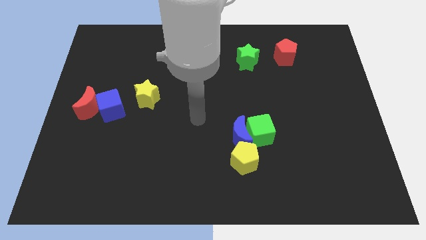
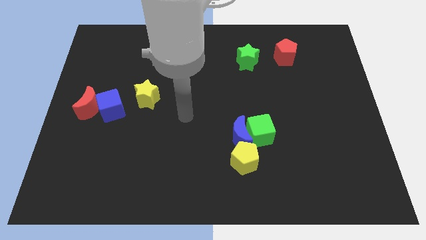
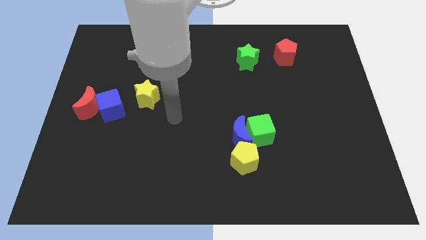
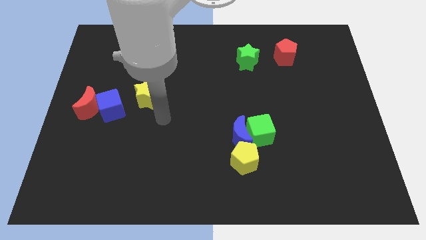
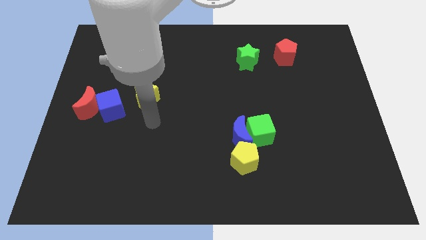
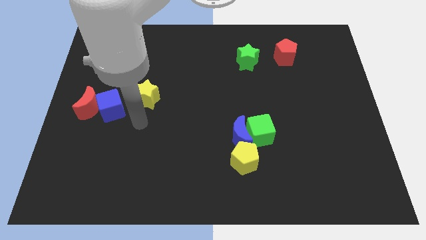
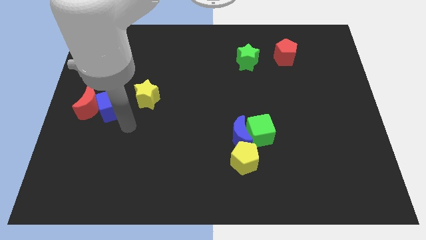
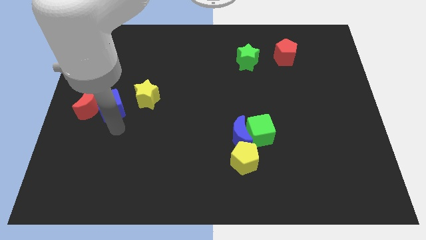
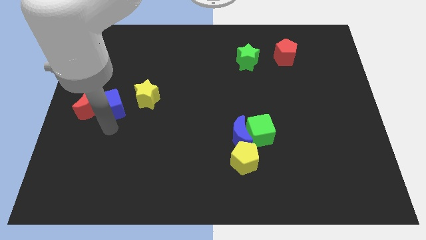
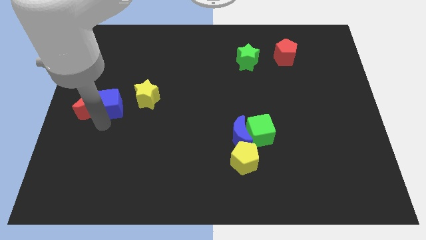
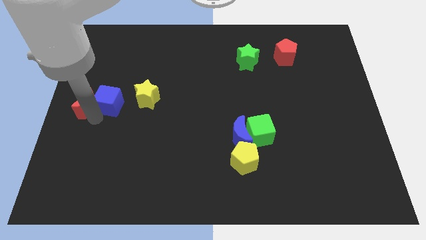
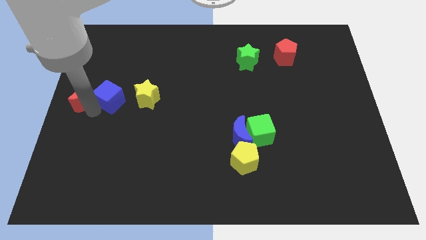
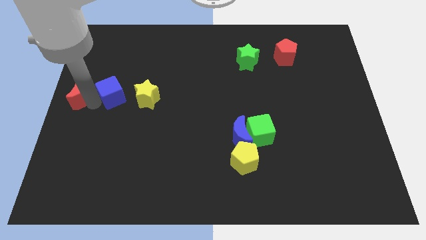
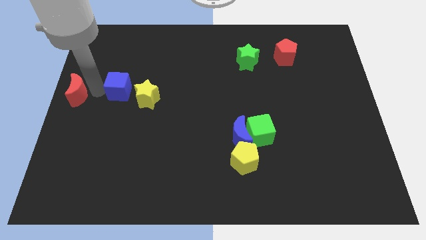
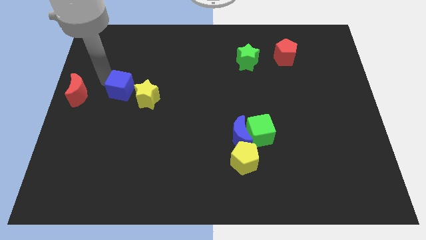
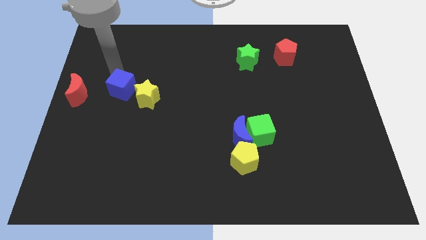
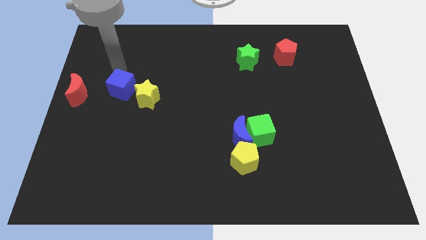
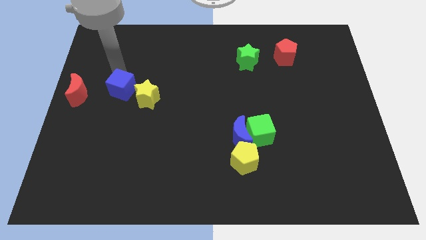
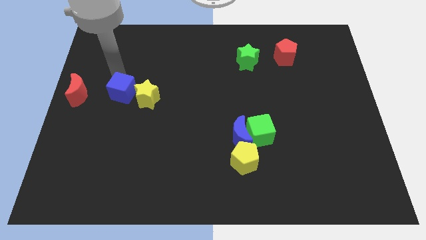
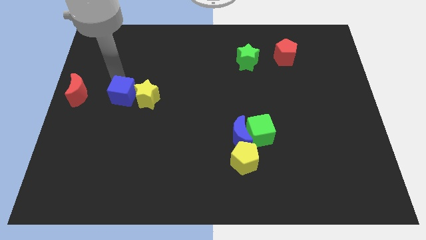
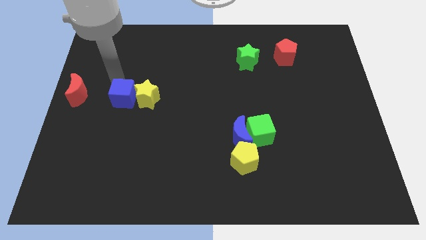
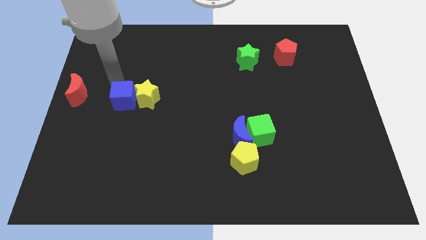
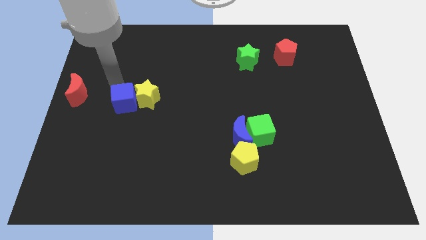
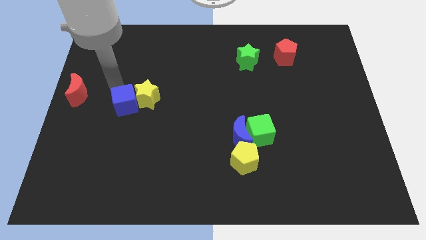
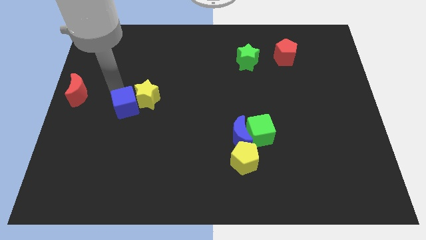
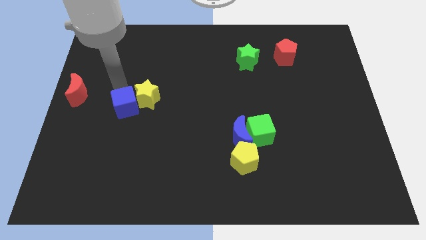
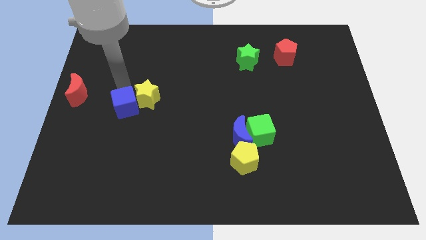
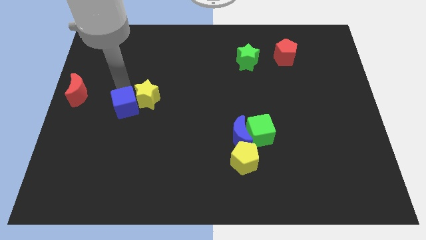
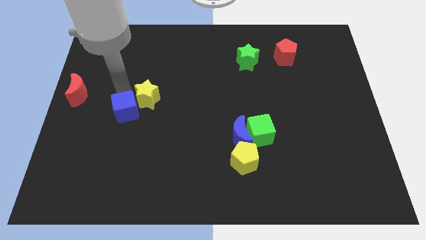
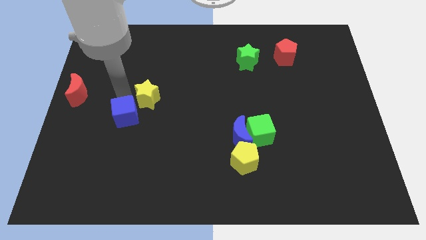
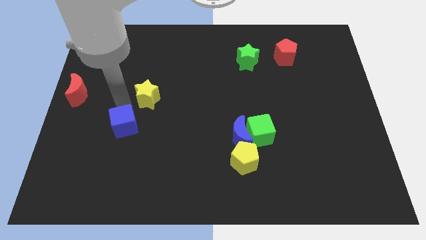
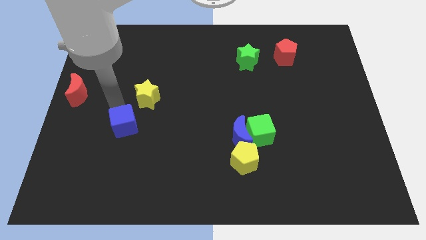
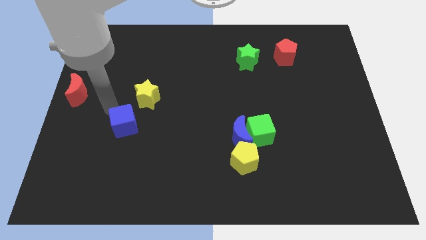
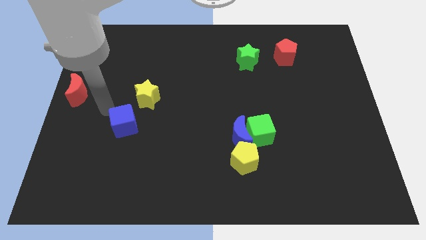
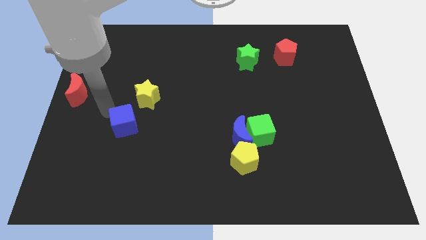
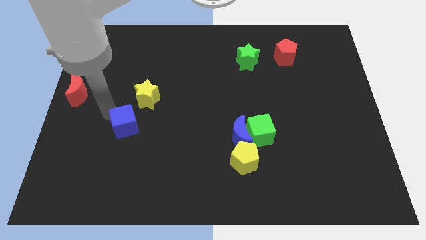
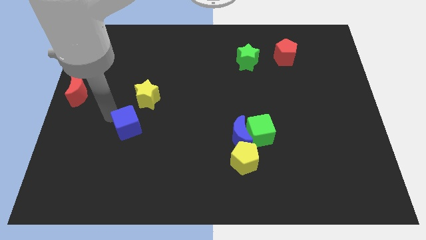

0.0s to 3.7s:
slightly push the blue cube downwards and then right

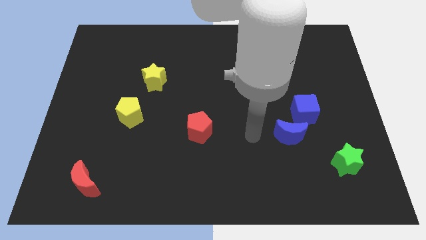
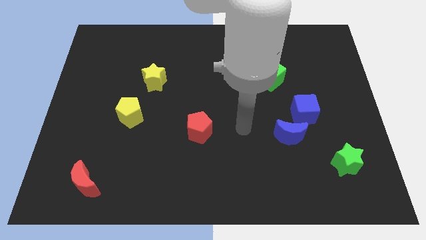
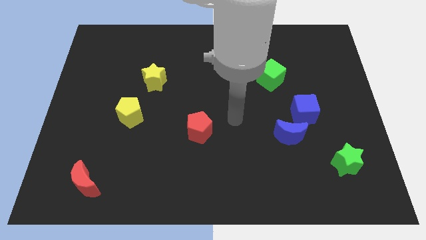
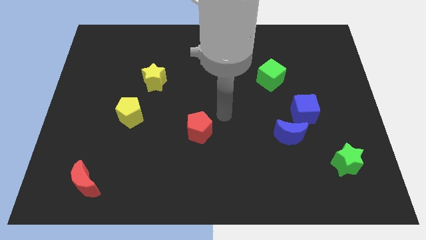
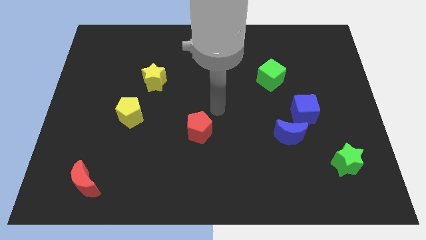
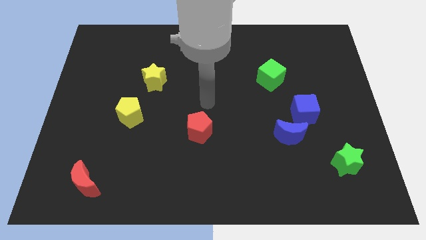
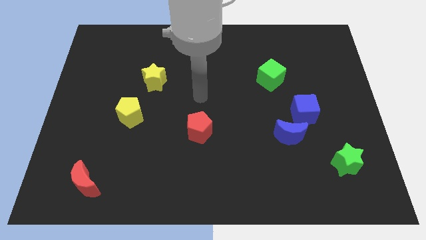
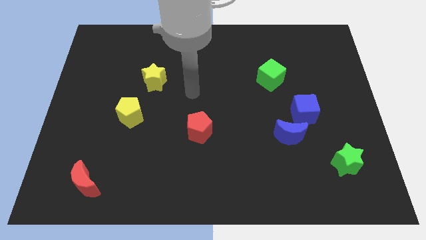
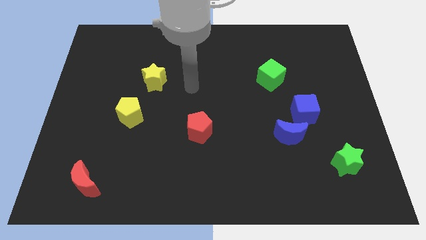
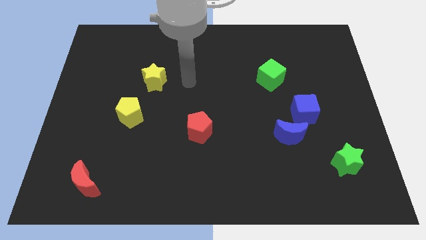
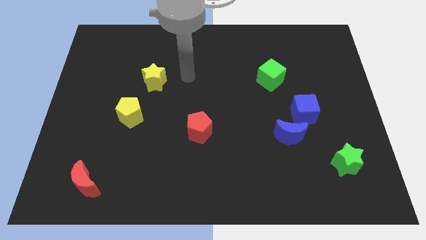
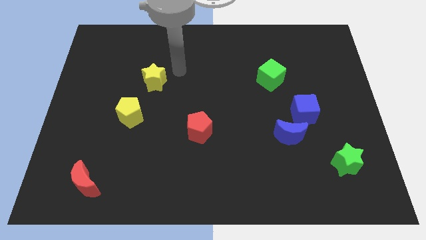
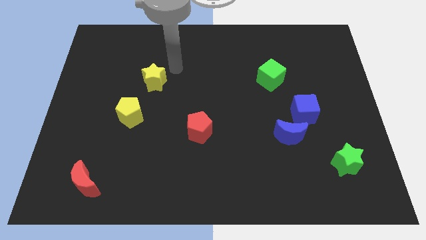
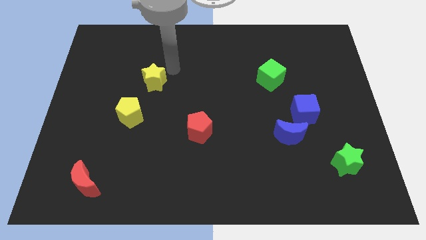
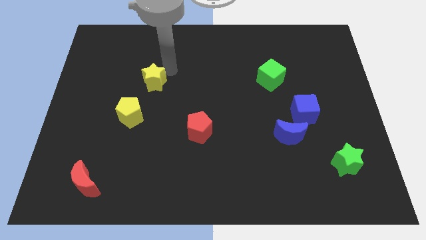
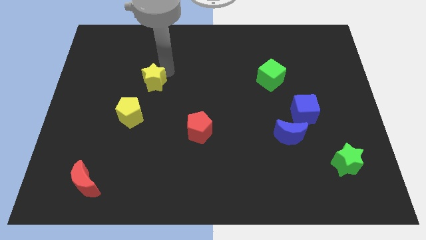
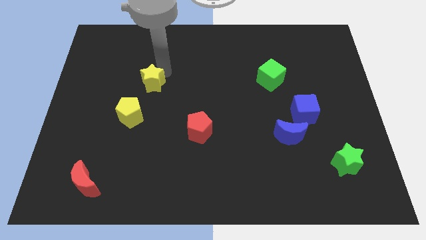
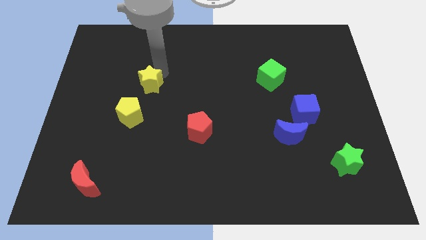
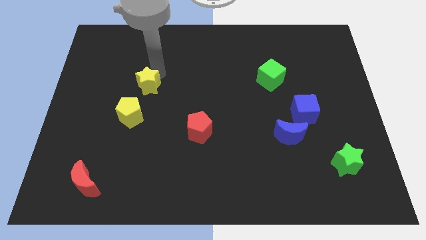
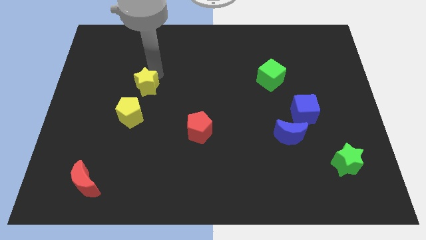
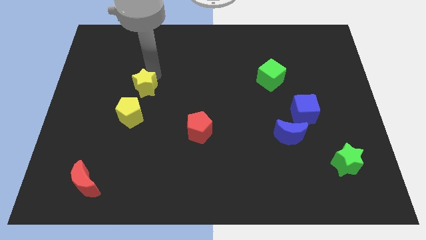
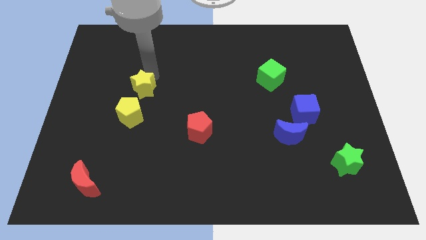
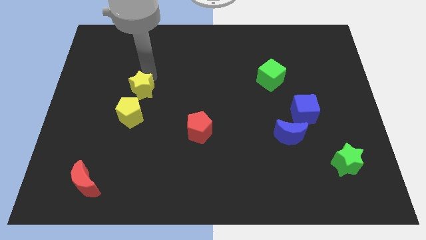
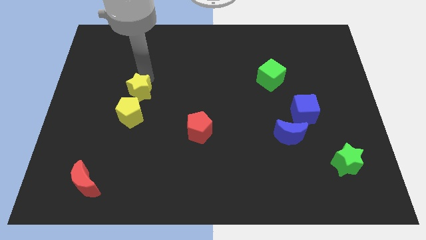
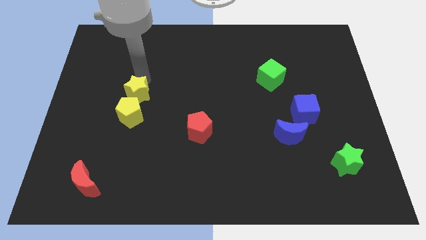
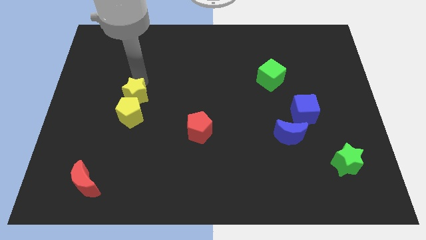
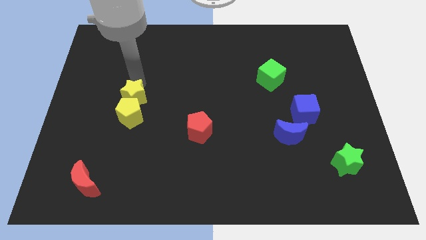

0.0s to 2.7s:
slide the yellow star a little downwards and to the left

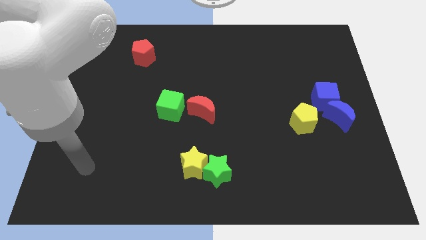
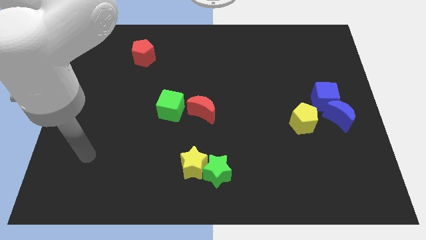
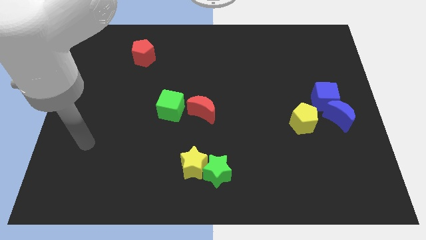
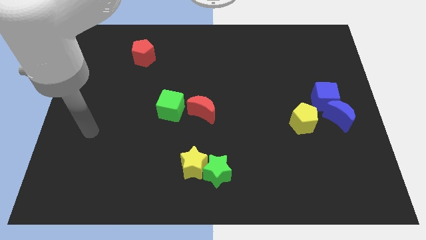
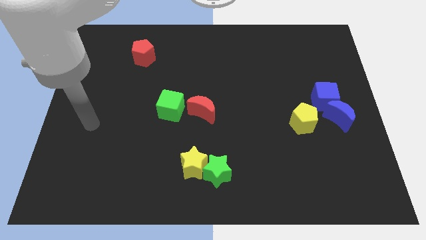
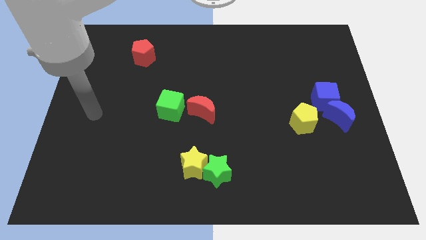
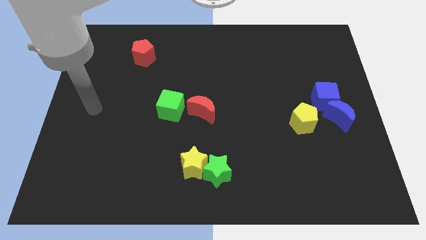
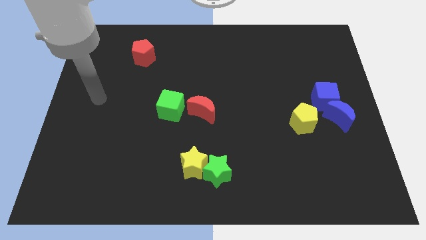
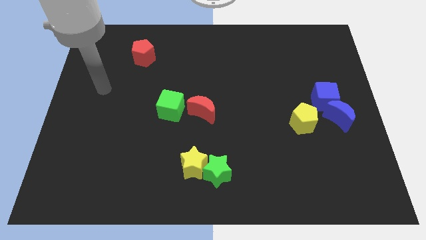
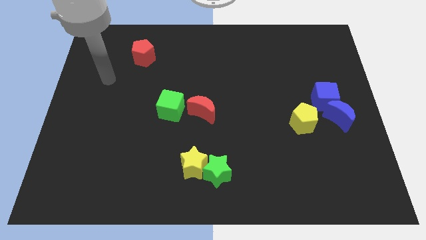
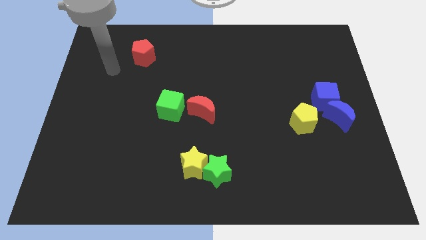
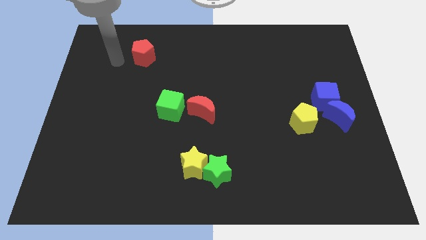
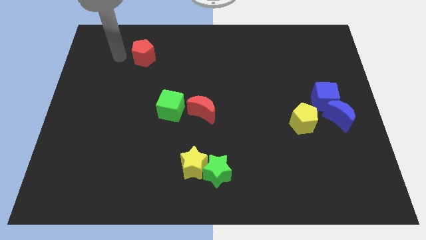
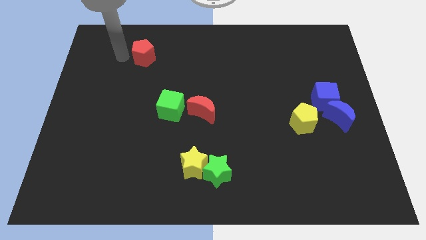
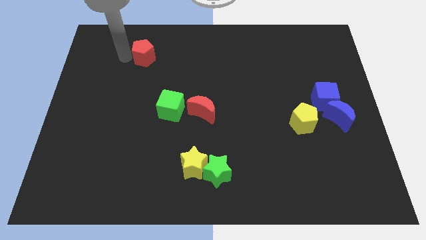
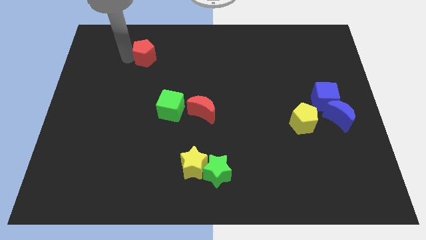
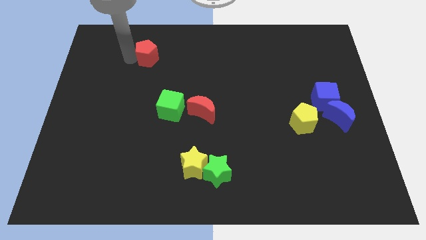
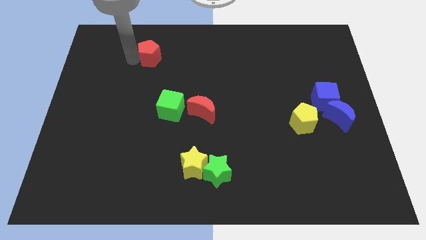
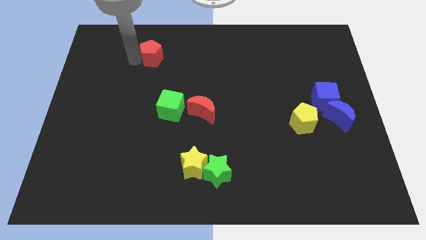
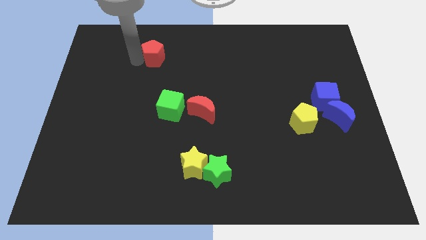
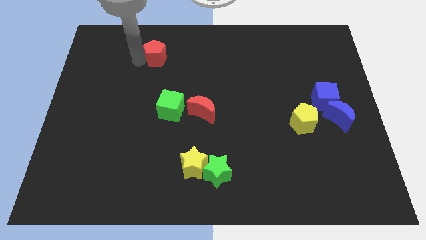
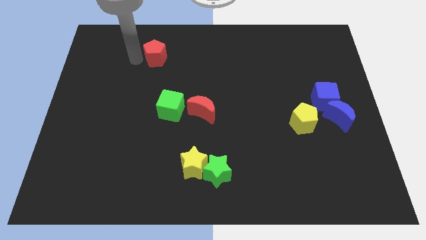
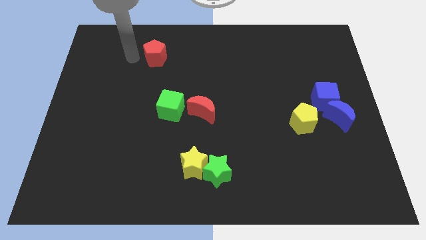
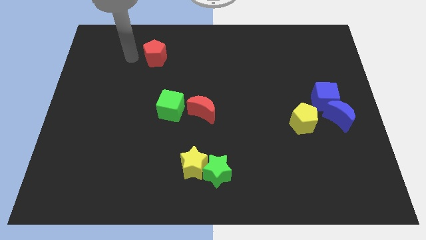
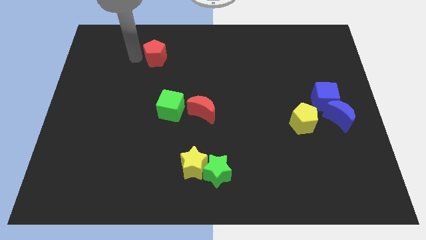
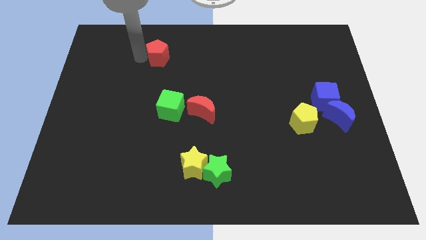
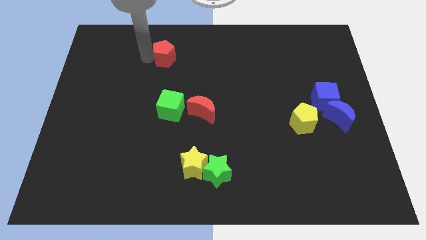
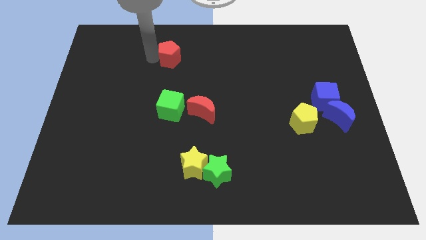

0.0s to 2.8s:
slightly move the red pentagon right
